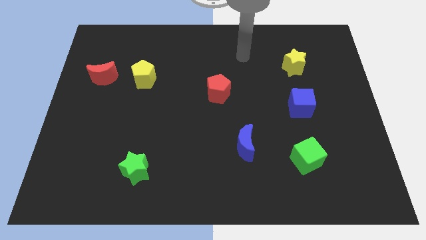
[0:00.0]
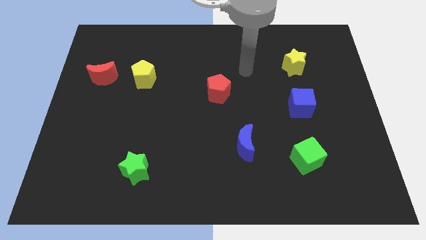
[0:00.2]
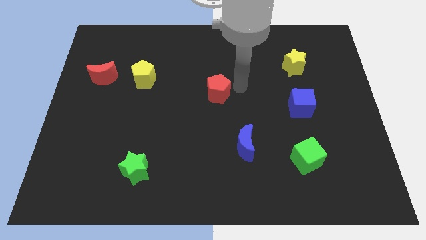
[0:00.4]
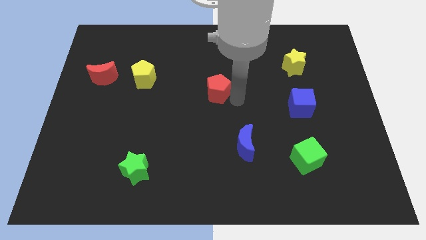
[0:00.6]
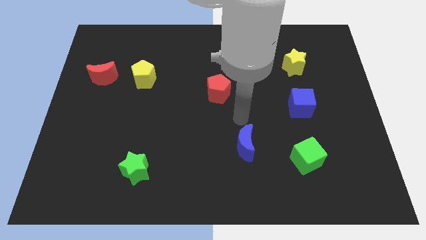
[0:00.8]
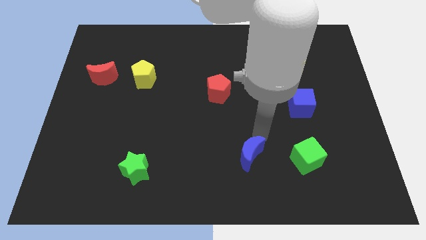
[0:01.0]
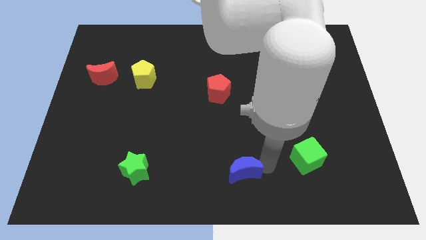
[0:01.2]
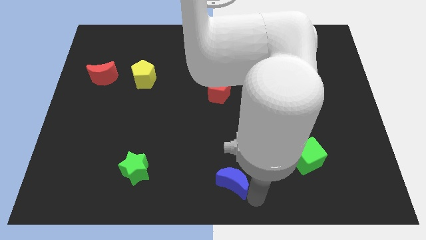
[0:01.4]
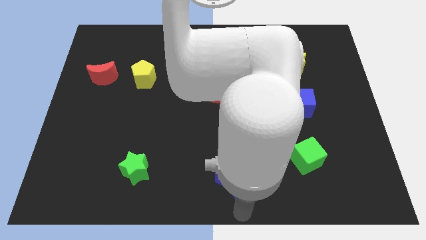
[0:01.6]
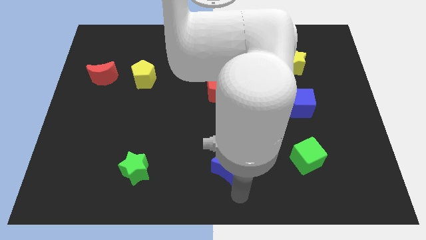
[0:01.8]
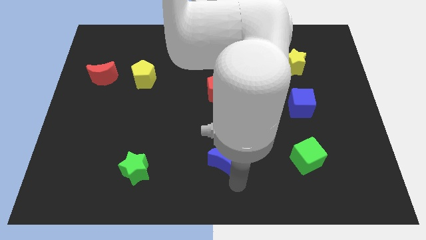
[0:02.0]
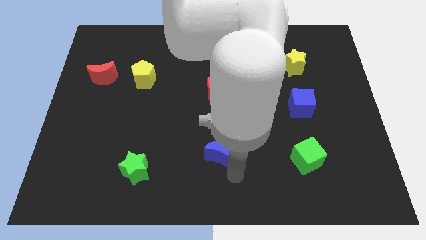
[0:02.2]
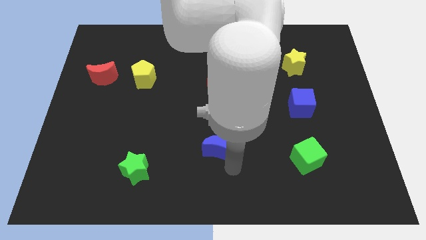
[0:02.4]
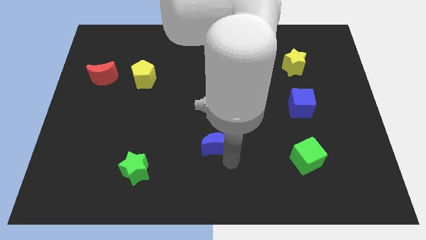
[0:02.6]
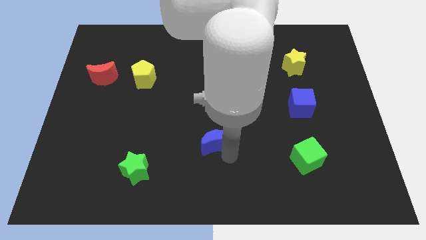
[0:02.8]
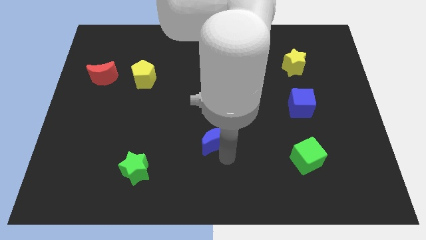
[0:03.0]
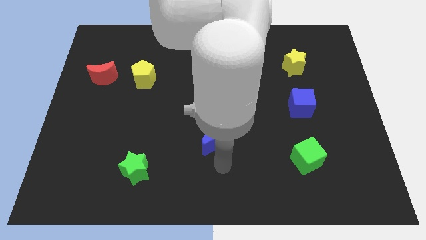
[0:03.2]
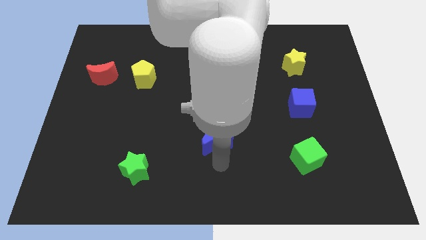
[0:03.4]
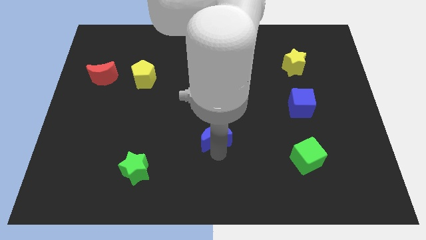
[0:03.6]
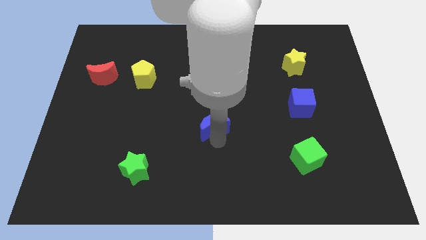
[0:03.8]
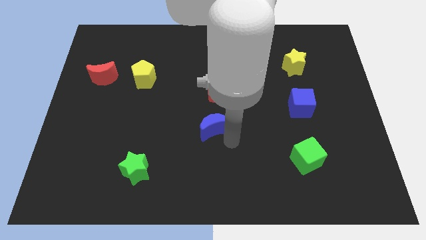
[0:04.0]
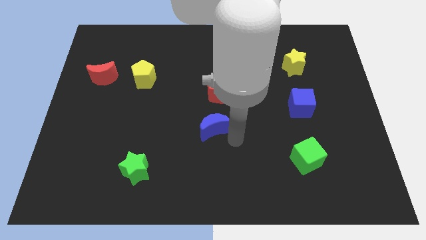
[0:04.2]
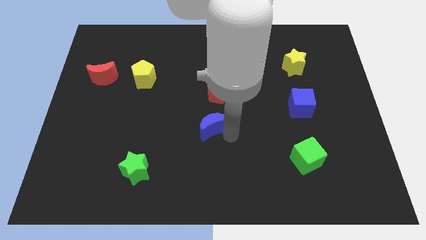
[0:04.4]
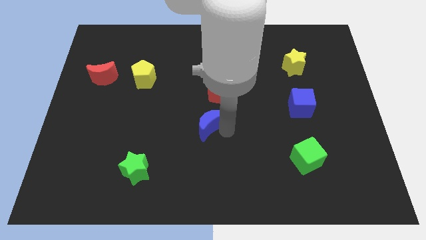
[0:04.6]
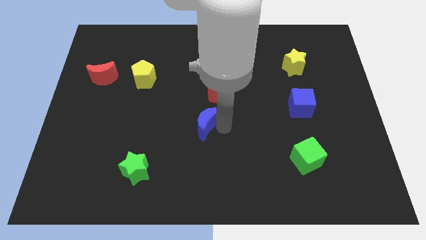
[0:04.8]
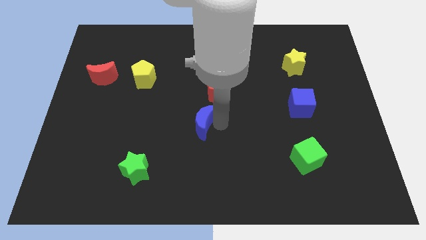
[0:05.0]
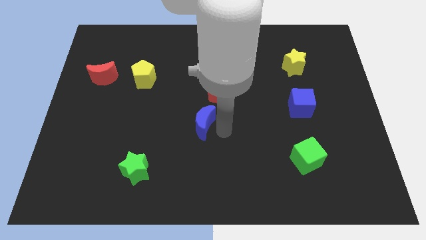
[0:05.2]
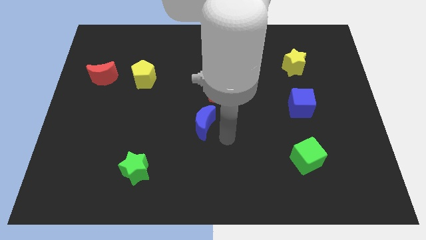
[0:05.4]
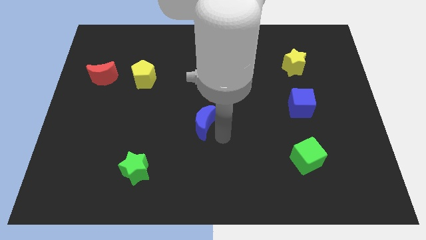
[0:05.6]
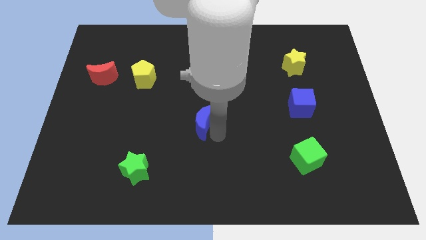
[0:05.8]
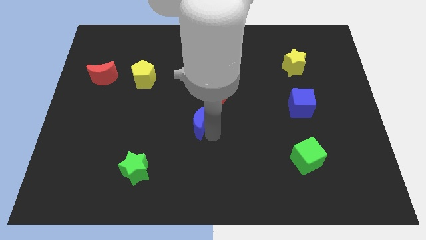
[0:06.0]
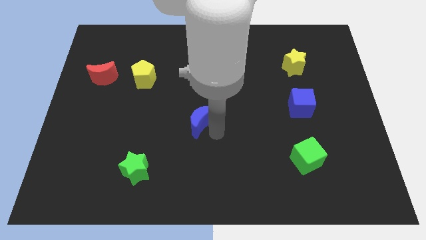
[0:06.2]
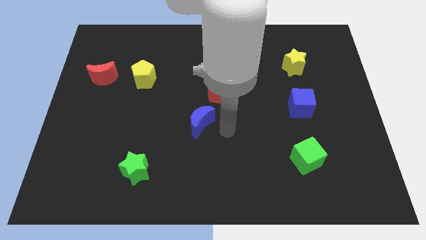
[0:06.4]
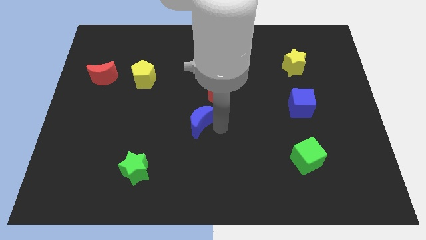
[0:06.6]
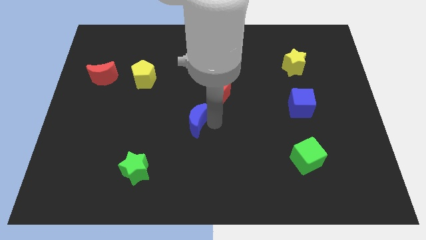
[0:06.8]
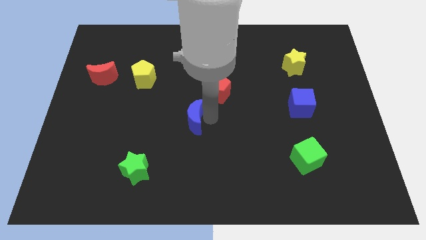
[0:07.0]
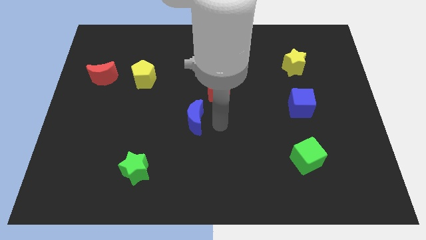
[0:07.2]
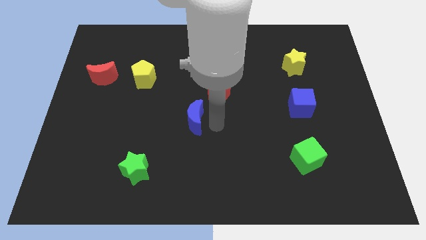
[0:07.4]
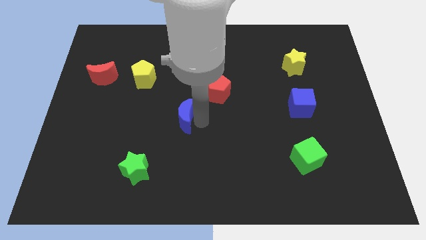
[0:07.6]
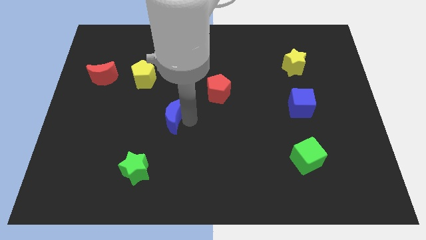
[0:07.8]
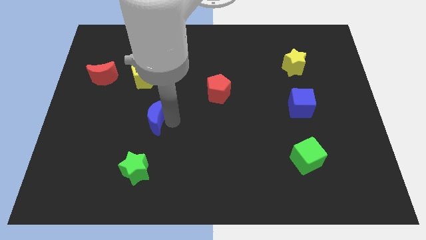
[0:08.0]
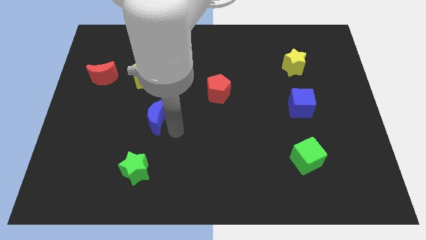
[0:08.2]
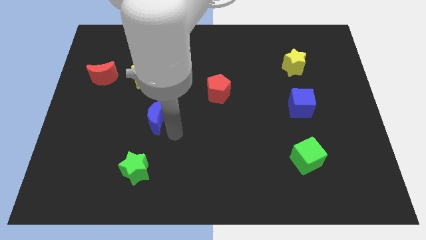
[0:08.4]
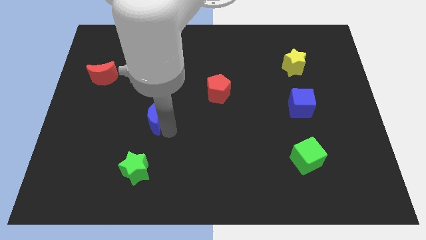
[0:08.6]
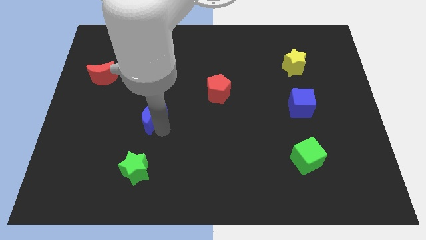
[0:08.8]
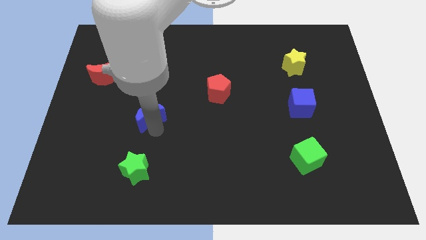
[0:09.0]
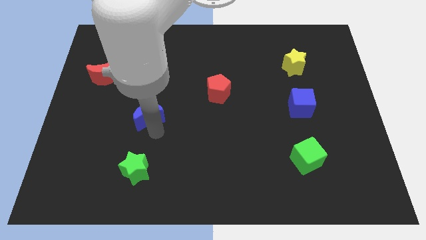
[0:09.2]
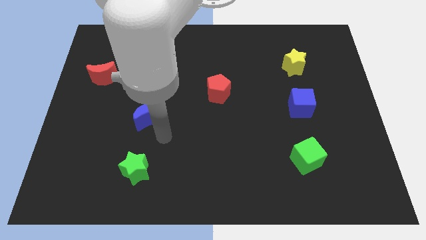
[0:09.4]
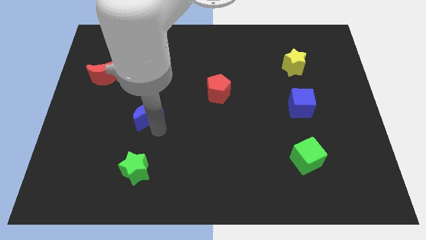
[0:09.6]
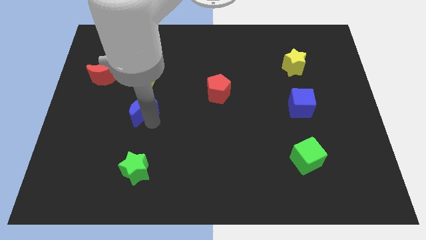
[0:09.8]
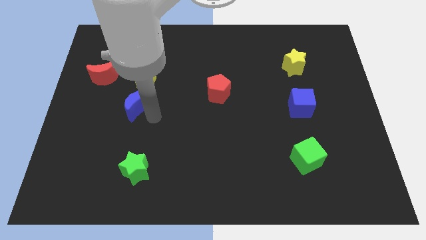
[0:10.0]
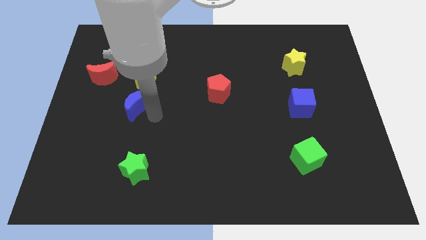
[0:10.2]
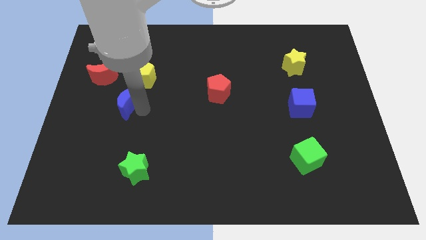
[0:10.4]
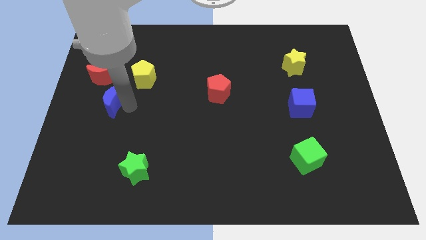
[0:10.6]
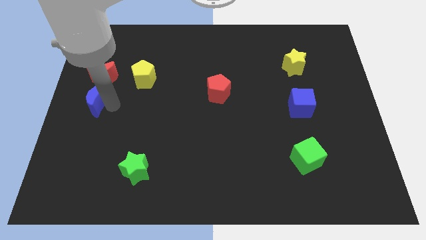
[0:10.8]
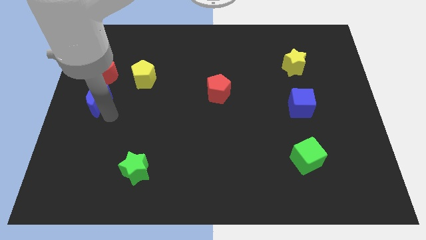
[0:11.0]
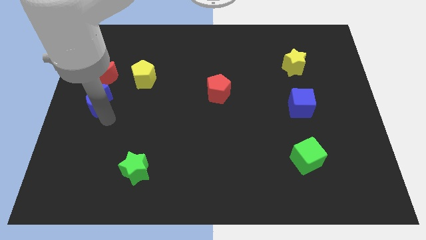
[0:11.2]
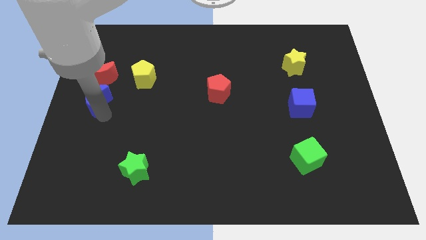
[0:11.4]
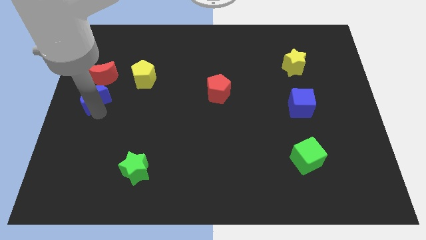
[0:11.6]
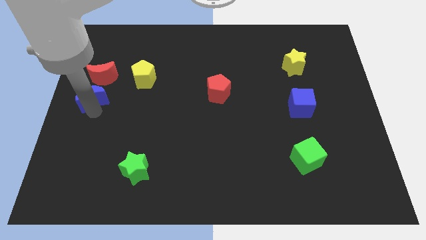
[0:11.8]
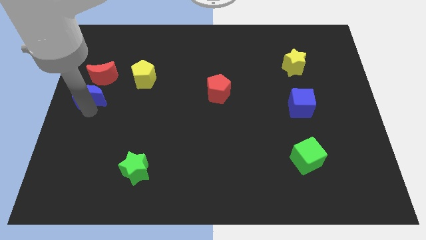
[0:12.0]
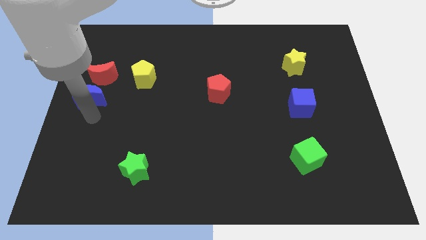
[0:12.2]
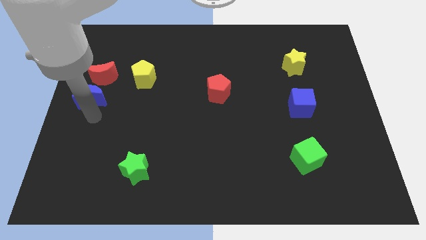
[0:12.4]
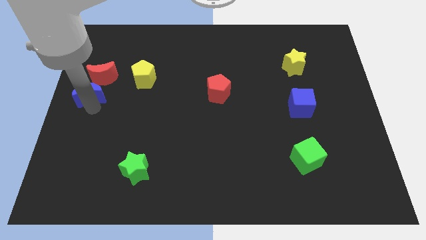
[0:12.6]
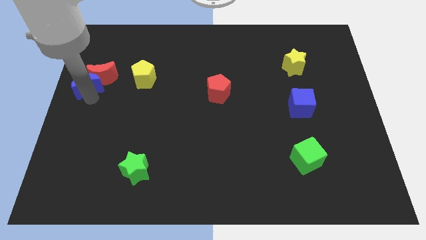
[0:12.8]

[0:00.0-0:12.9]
move the blue moon to the left side of the yellow pentagon

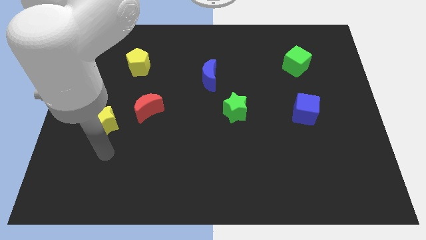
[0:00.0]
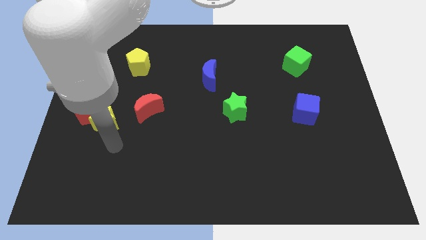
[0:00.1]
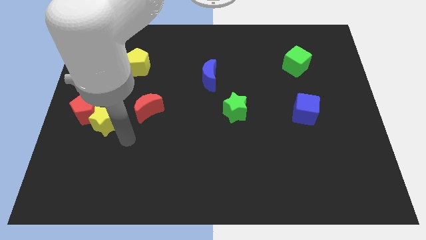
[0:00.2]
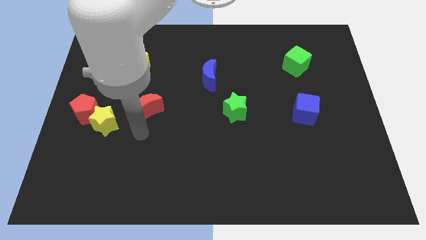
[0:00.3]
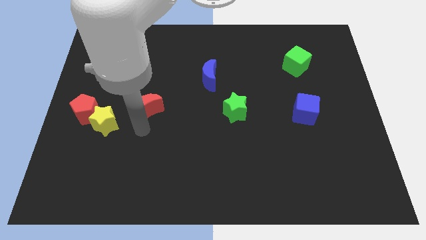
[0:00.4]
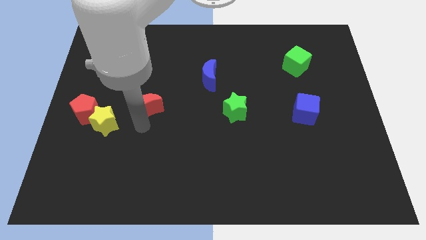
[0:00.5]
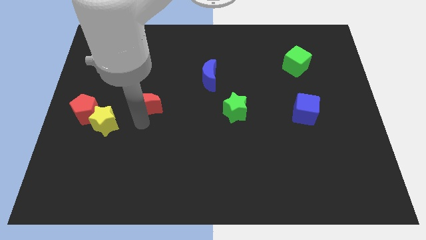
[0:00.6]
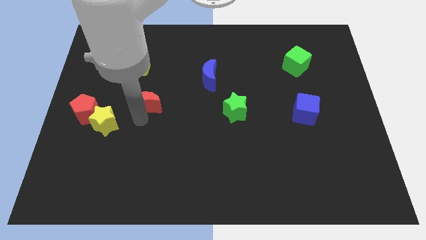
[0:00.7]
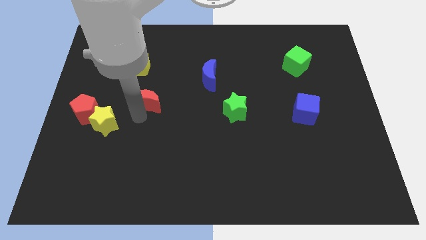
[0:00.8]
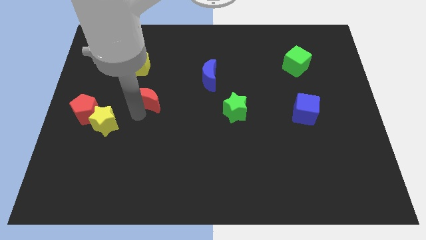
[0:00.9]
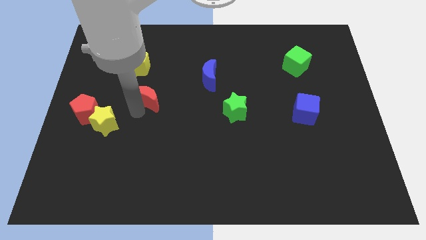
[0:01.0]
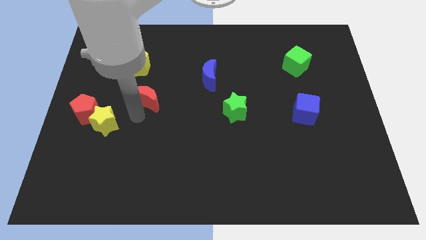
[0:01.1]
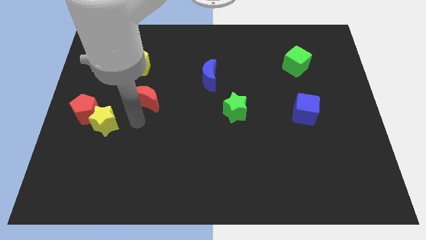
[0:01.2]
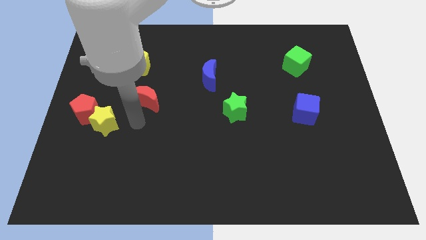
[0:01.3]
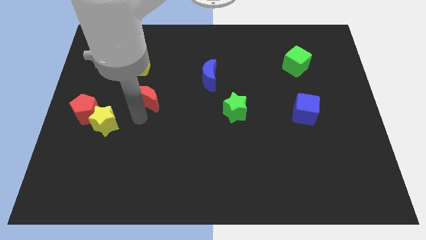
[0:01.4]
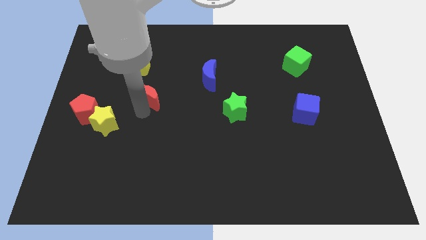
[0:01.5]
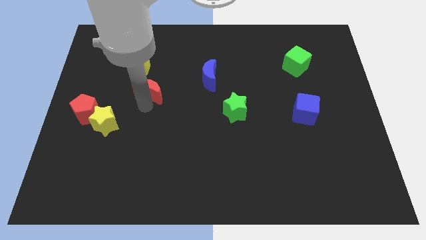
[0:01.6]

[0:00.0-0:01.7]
move the red moon to the bottom right of the yellow pentagon
